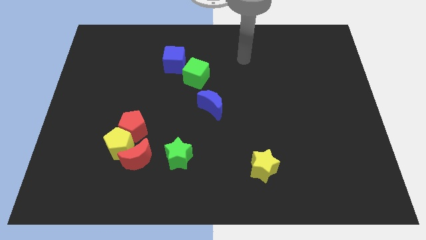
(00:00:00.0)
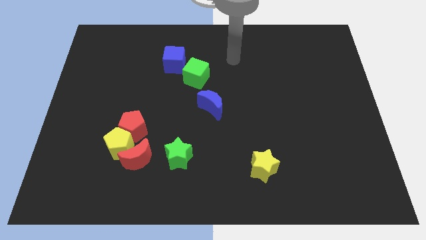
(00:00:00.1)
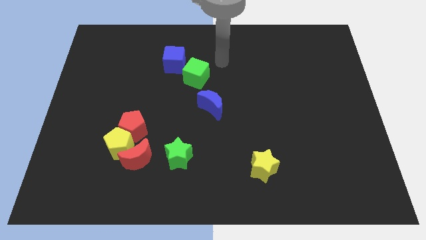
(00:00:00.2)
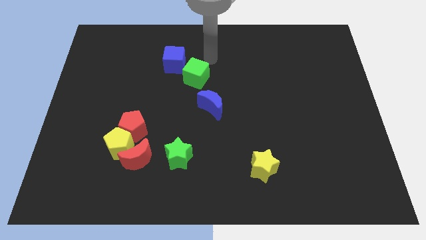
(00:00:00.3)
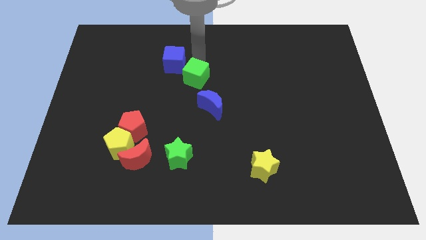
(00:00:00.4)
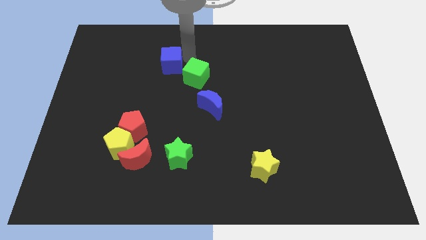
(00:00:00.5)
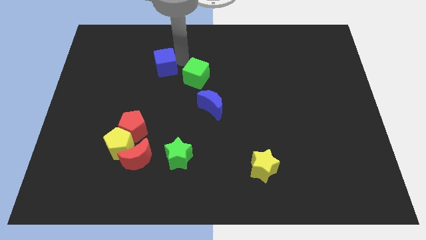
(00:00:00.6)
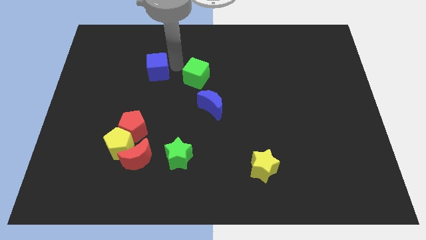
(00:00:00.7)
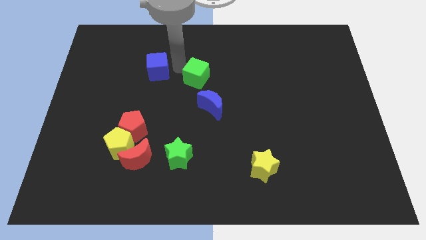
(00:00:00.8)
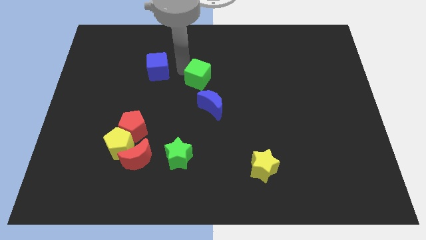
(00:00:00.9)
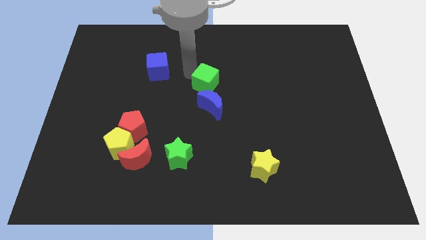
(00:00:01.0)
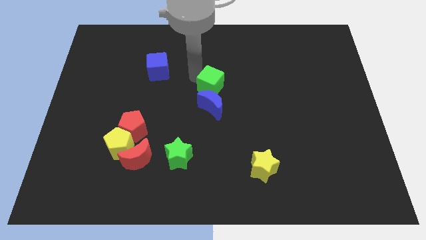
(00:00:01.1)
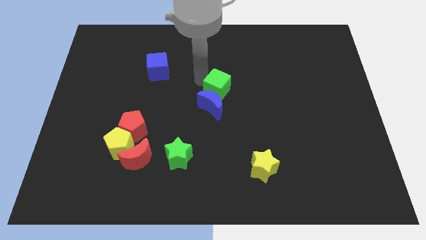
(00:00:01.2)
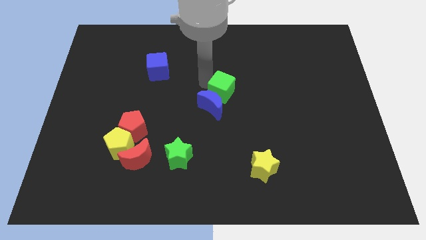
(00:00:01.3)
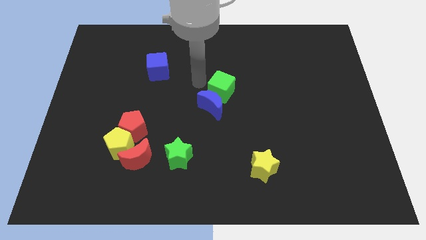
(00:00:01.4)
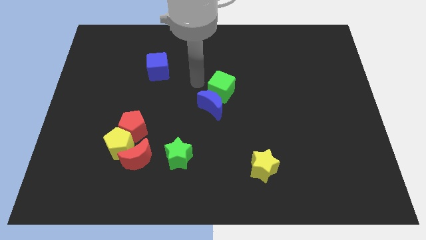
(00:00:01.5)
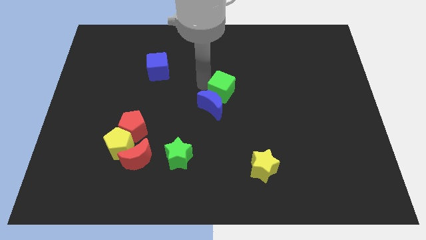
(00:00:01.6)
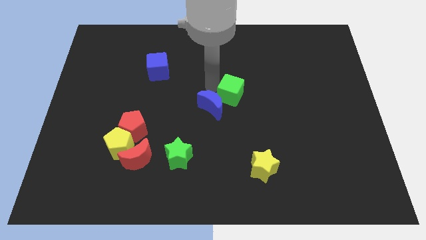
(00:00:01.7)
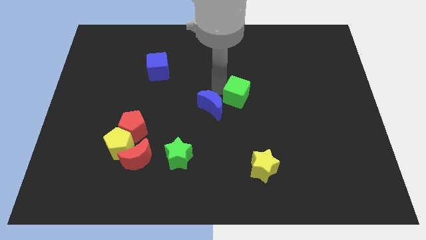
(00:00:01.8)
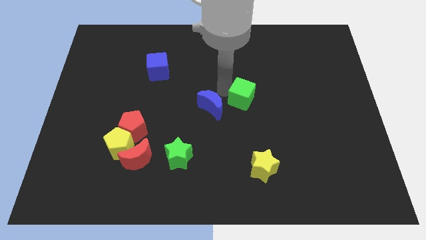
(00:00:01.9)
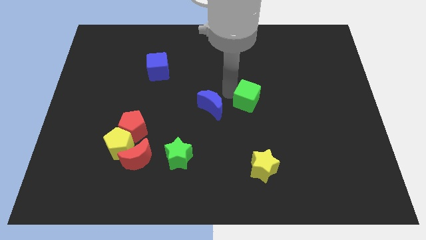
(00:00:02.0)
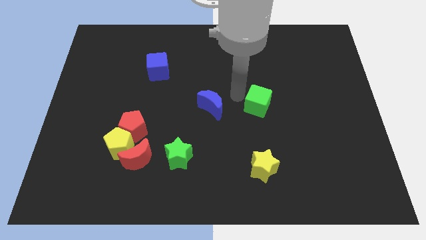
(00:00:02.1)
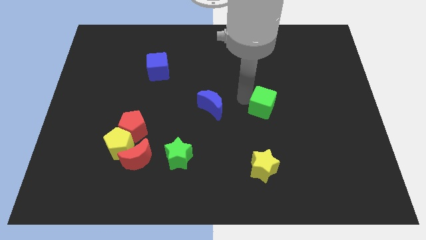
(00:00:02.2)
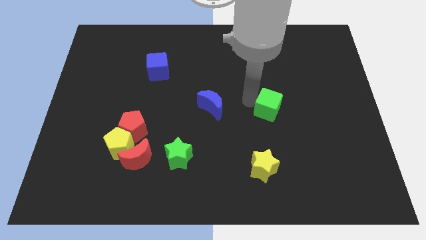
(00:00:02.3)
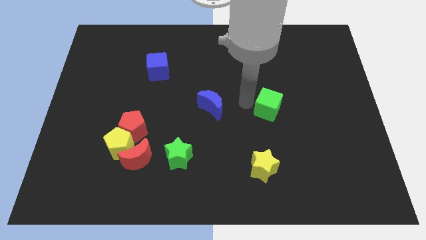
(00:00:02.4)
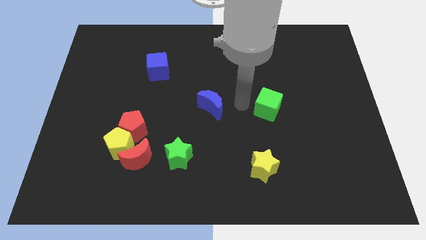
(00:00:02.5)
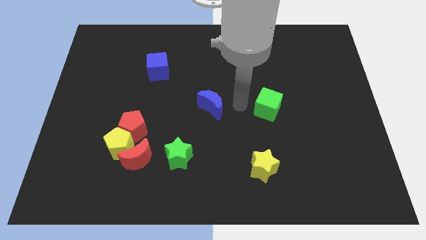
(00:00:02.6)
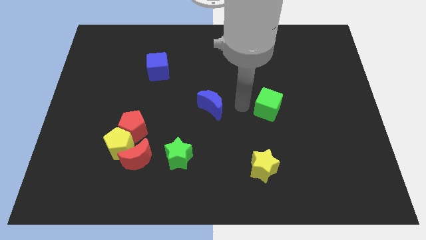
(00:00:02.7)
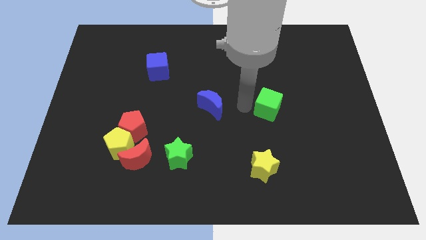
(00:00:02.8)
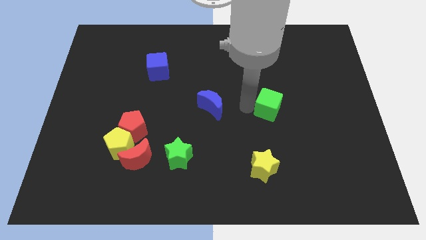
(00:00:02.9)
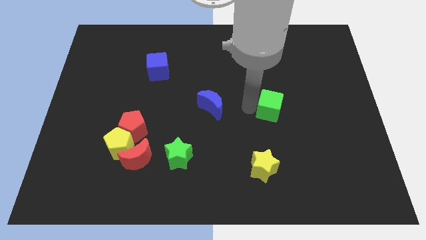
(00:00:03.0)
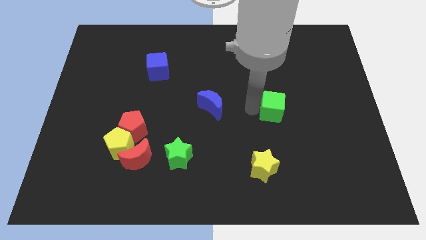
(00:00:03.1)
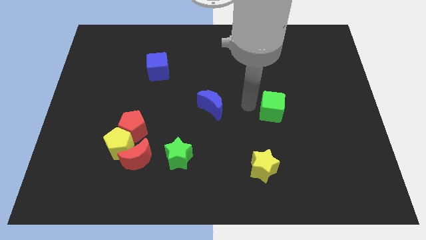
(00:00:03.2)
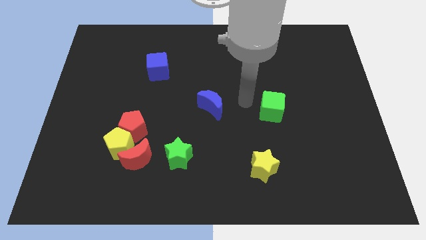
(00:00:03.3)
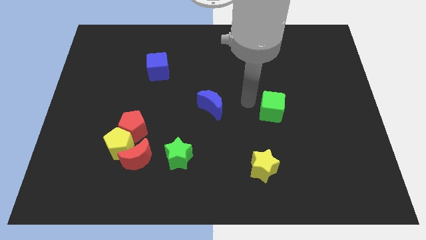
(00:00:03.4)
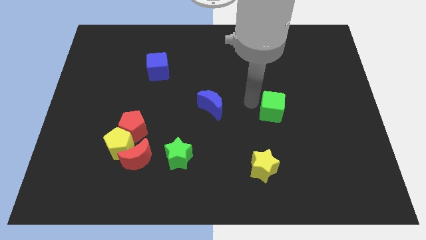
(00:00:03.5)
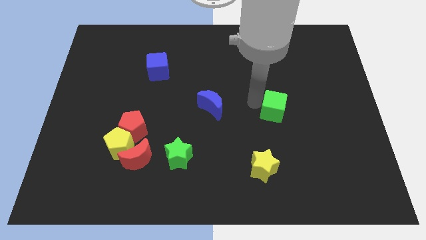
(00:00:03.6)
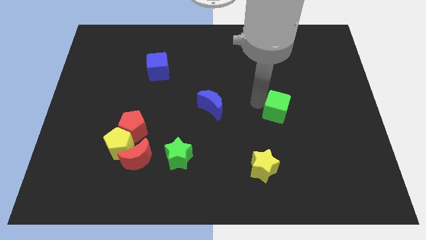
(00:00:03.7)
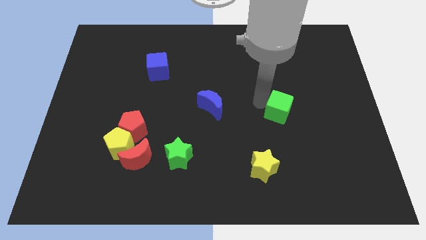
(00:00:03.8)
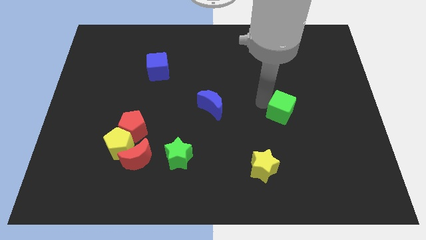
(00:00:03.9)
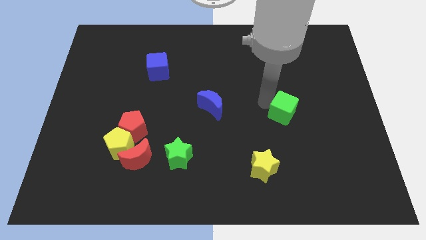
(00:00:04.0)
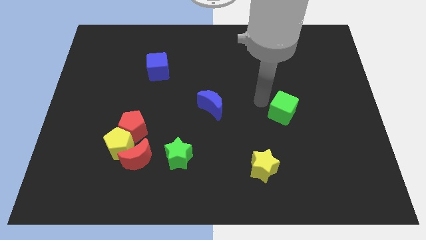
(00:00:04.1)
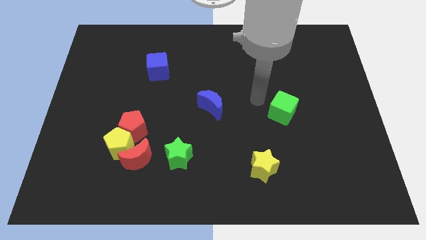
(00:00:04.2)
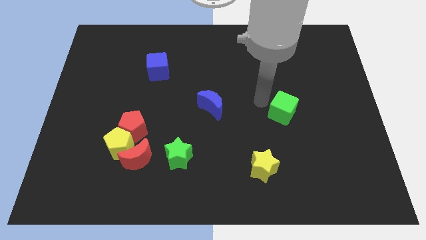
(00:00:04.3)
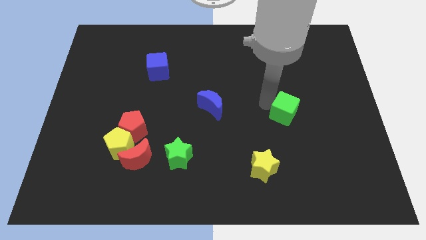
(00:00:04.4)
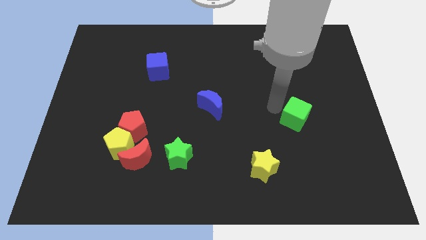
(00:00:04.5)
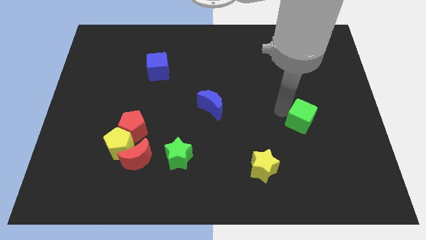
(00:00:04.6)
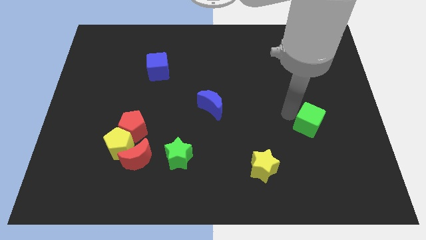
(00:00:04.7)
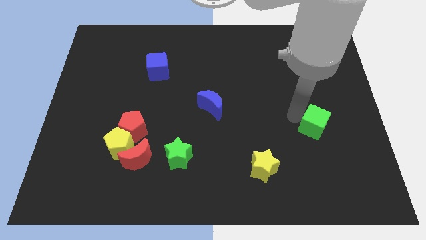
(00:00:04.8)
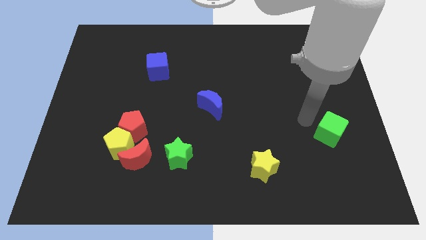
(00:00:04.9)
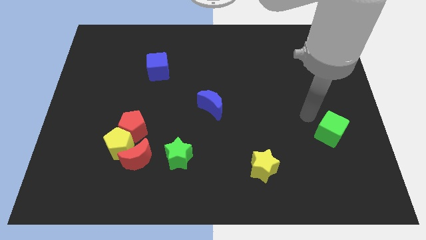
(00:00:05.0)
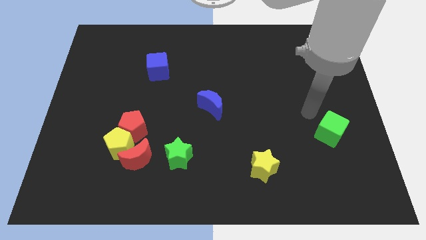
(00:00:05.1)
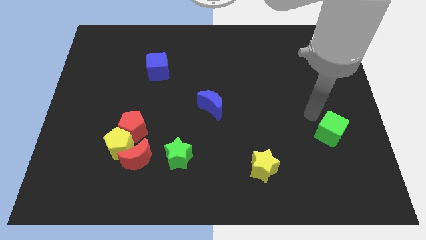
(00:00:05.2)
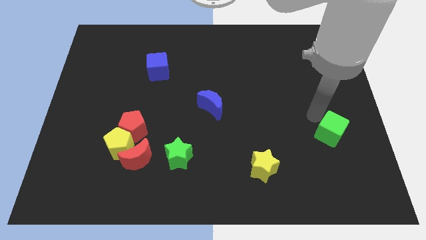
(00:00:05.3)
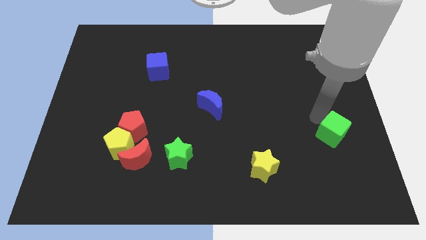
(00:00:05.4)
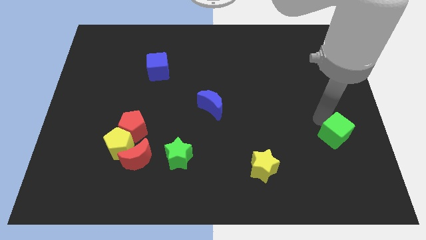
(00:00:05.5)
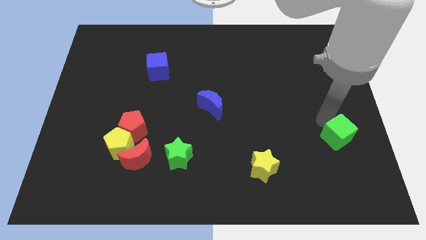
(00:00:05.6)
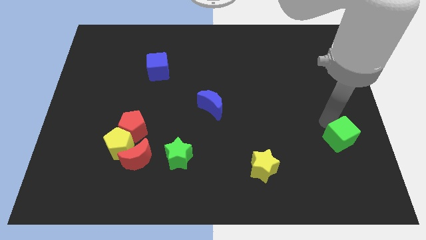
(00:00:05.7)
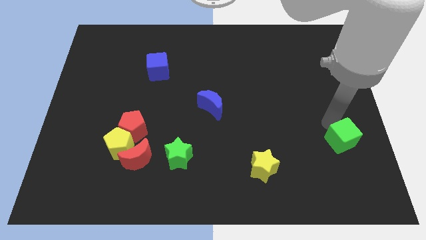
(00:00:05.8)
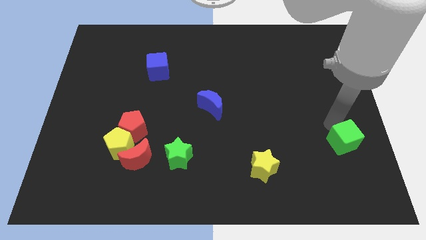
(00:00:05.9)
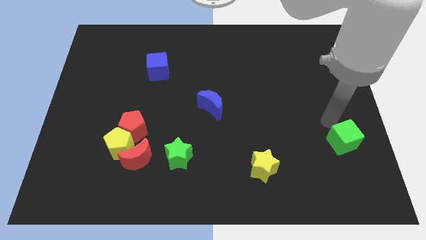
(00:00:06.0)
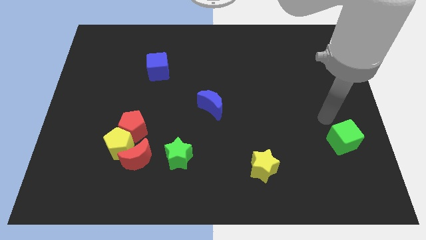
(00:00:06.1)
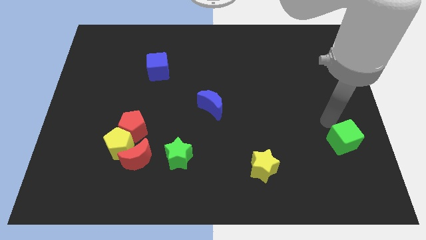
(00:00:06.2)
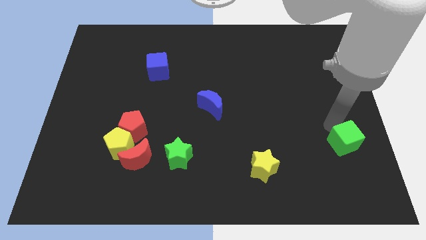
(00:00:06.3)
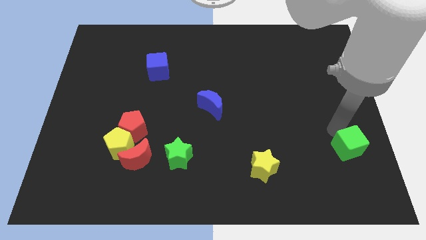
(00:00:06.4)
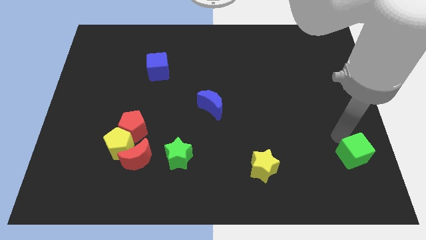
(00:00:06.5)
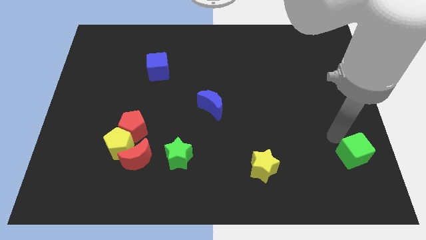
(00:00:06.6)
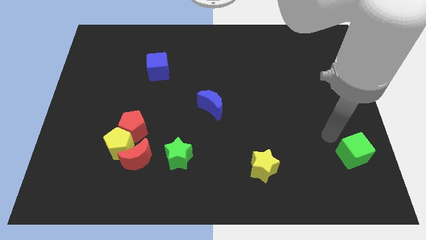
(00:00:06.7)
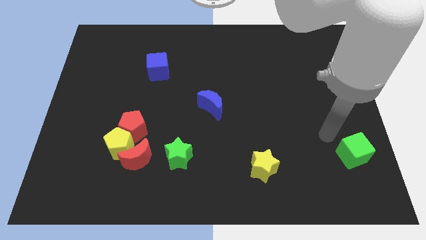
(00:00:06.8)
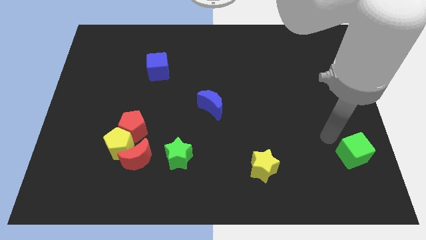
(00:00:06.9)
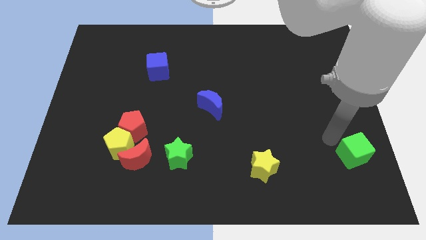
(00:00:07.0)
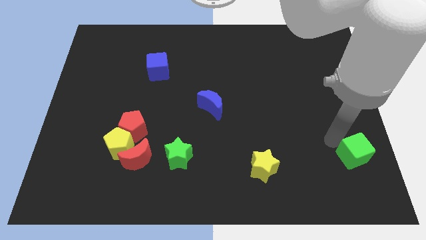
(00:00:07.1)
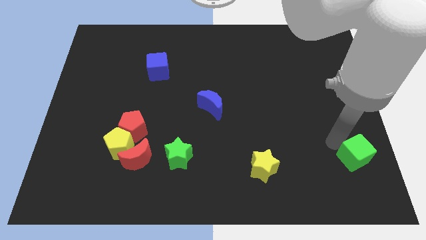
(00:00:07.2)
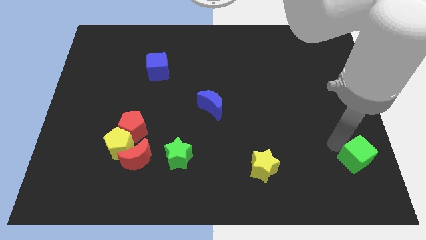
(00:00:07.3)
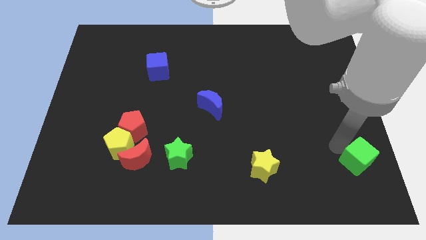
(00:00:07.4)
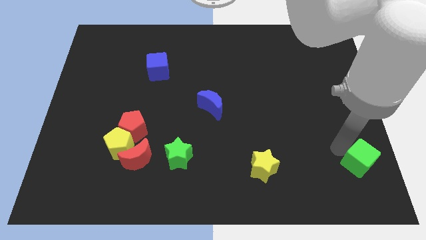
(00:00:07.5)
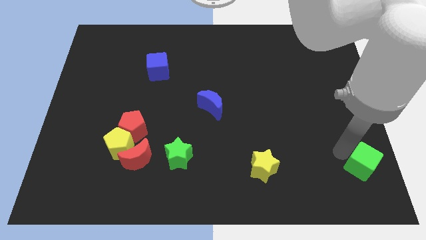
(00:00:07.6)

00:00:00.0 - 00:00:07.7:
move the green cube to the bottom right corner

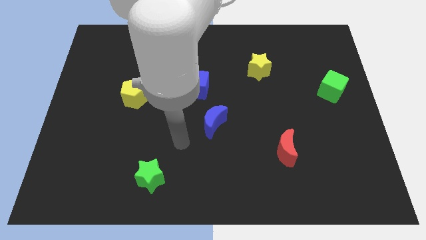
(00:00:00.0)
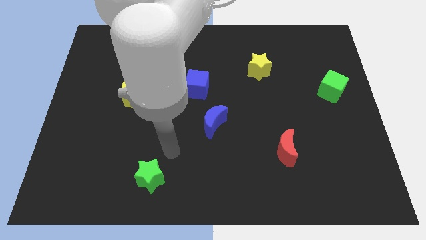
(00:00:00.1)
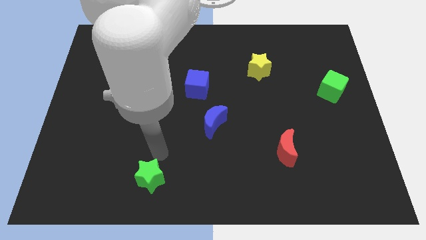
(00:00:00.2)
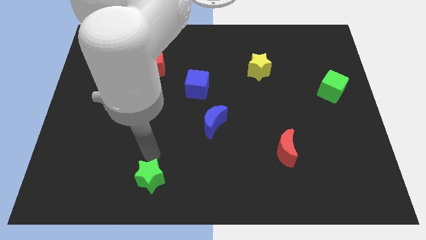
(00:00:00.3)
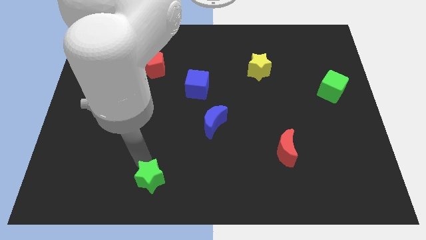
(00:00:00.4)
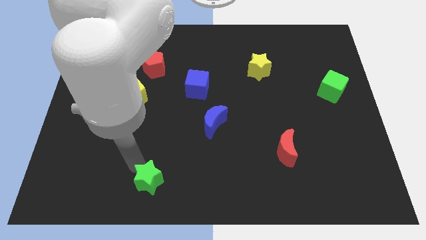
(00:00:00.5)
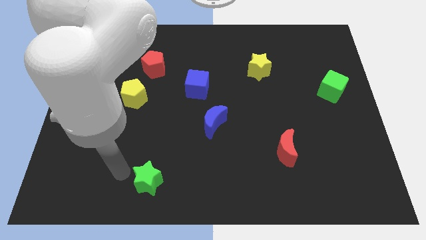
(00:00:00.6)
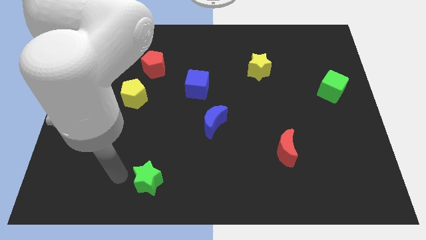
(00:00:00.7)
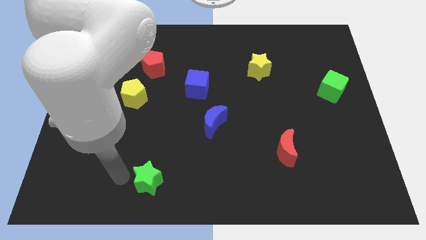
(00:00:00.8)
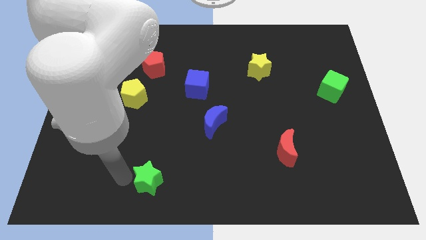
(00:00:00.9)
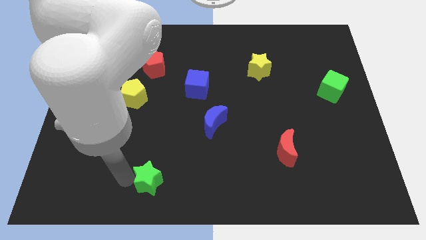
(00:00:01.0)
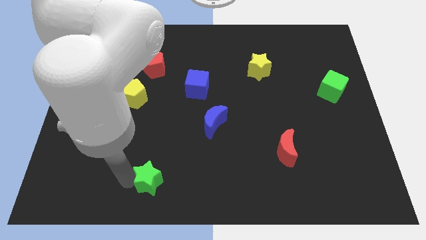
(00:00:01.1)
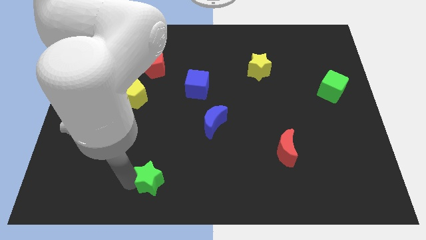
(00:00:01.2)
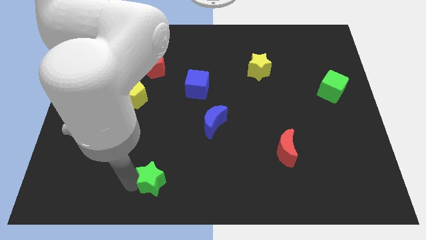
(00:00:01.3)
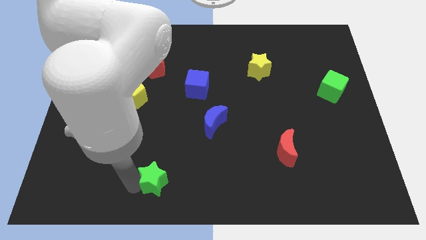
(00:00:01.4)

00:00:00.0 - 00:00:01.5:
put the green star to the bottom side
